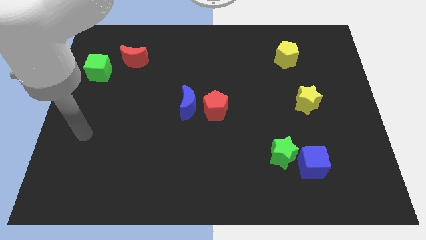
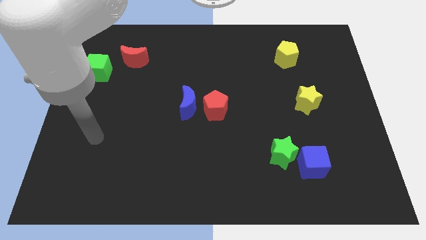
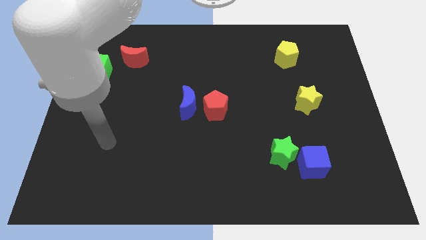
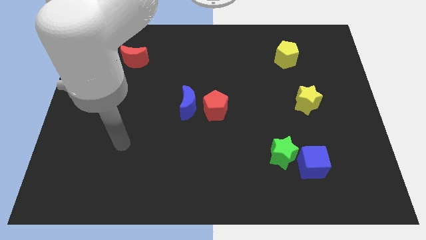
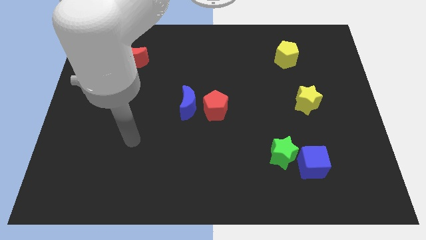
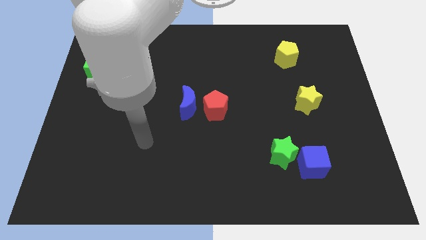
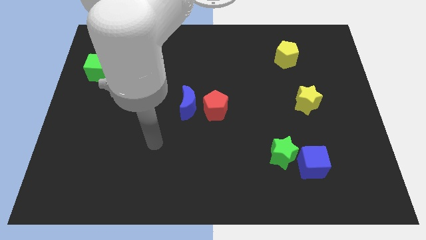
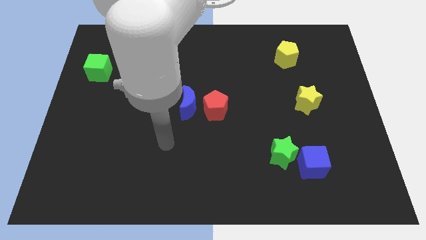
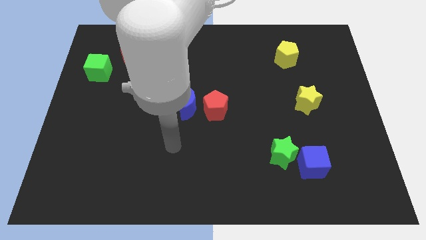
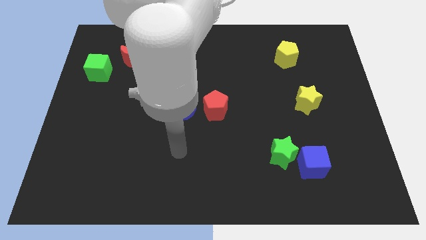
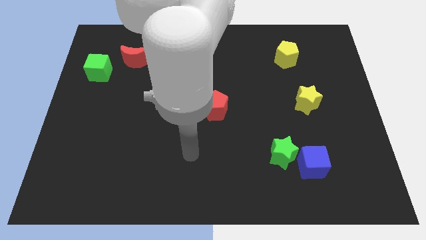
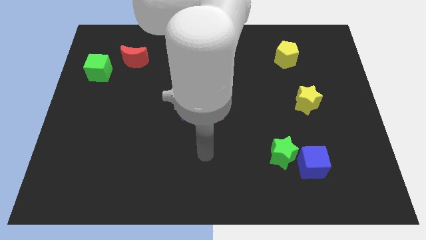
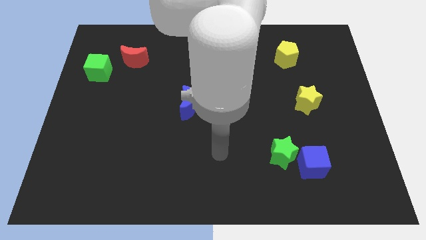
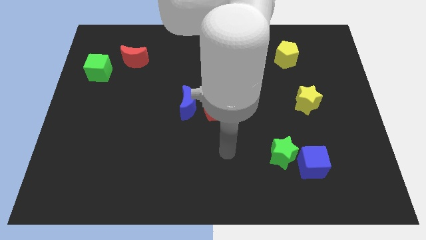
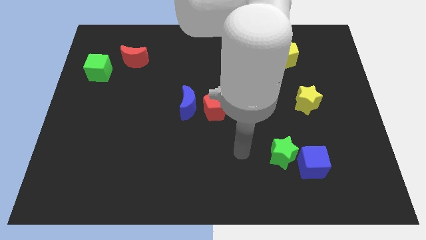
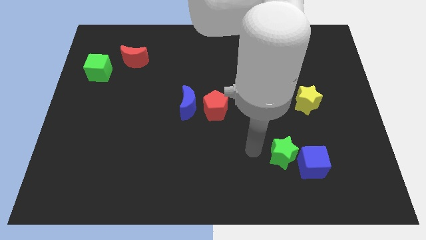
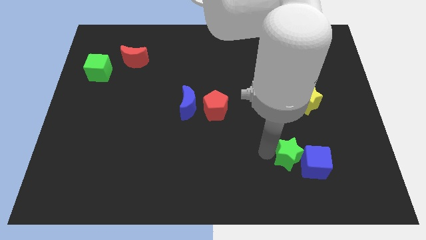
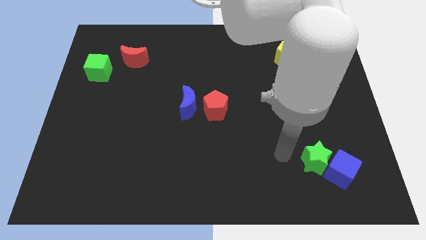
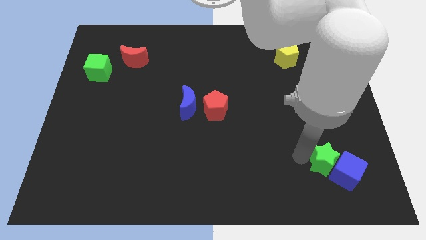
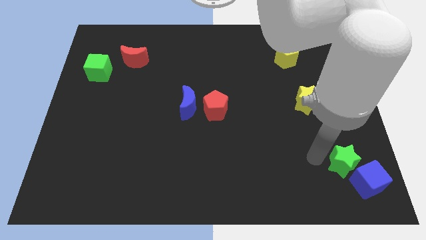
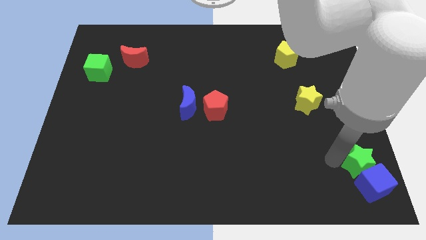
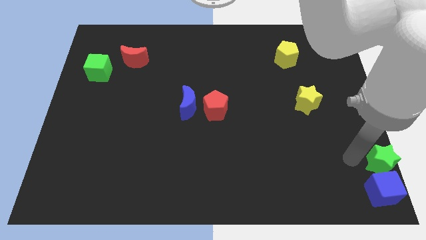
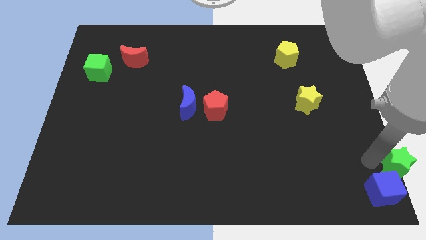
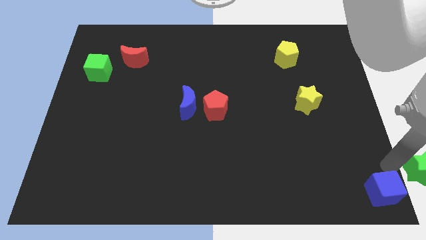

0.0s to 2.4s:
separate the blue cube from the green star

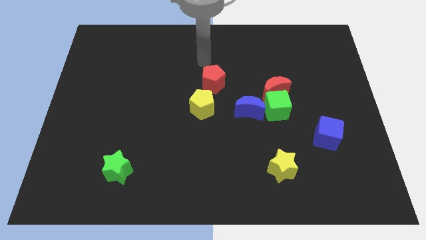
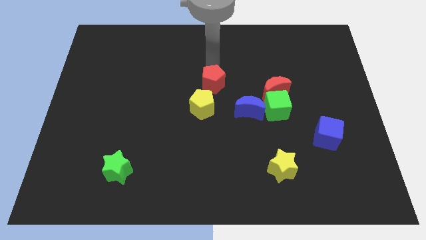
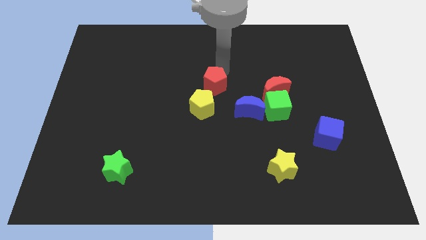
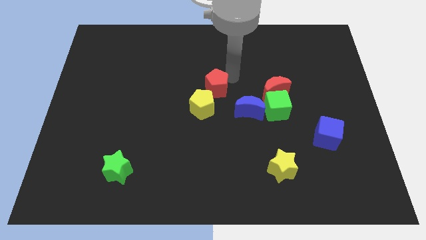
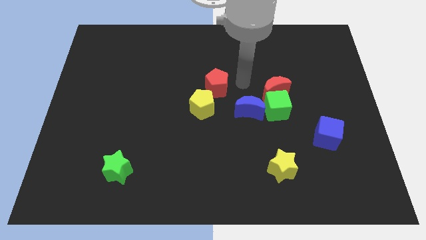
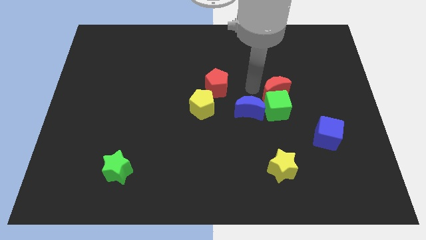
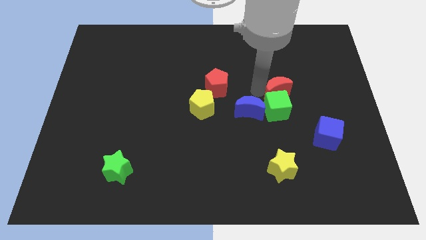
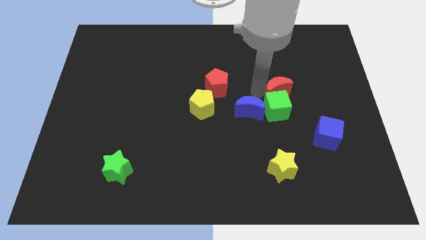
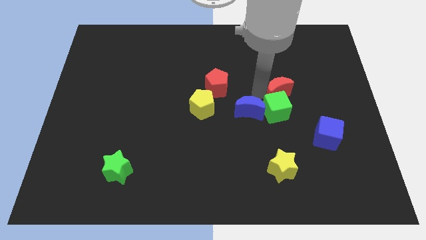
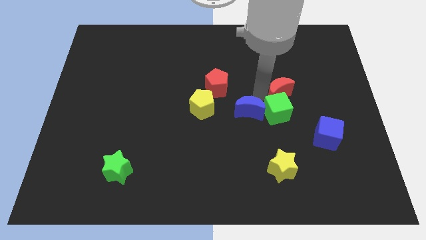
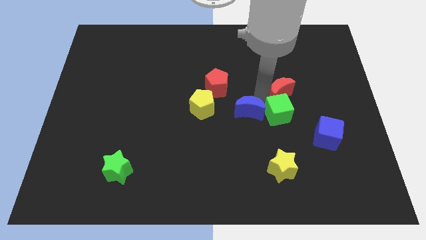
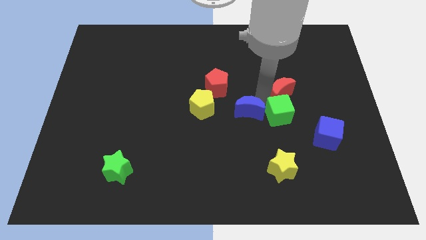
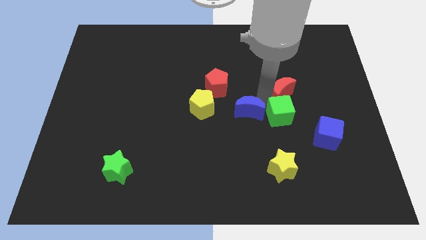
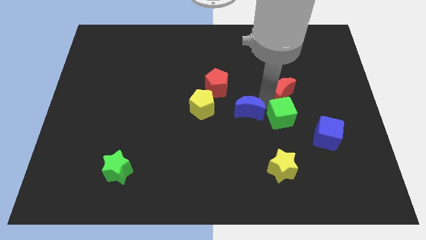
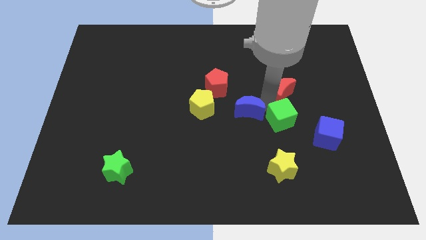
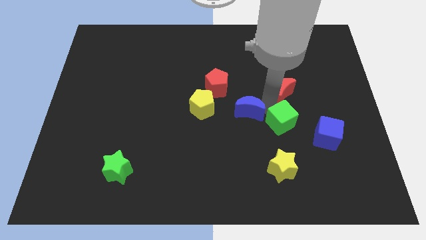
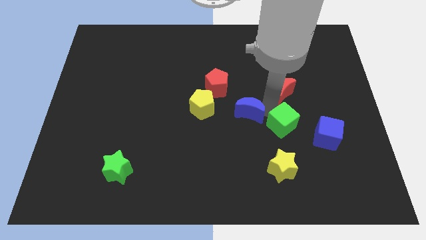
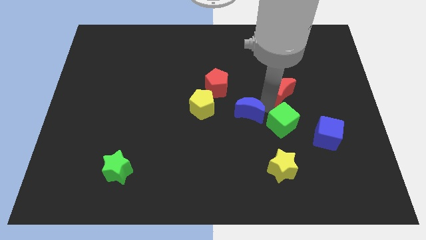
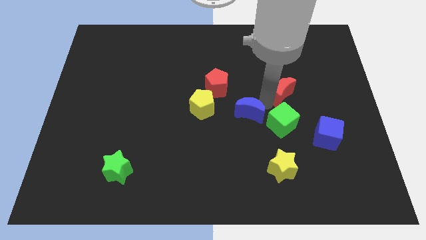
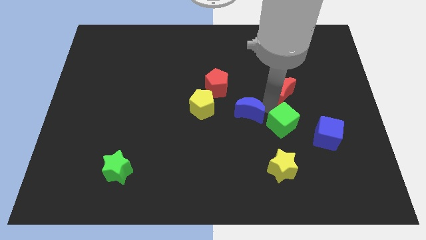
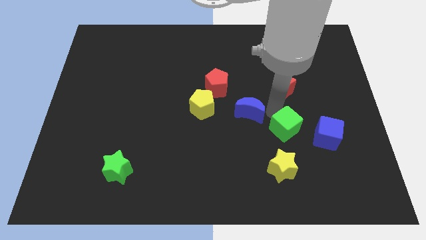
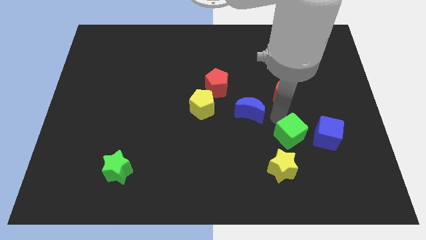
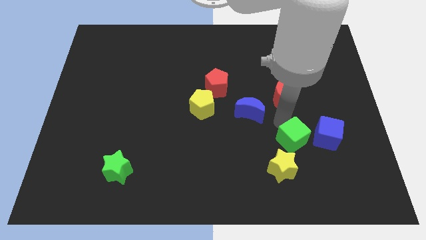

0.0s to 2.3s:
separate the green cube from the red moon and blue moon

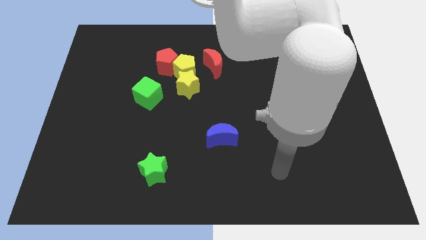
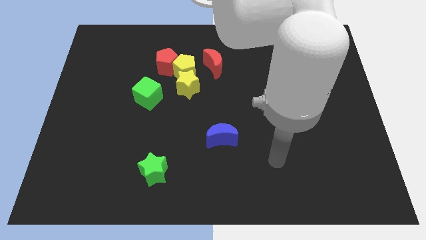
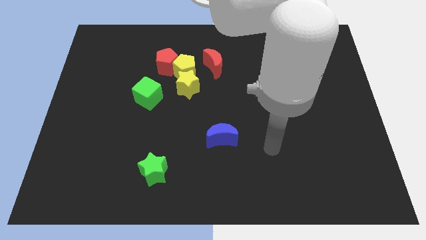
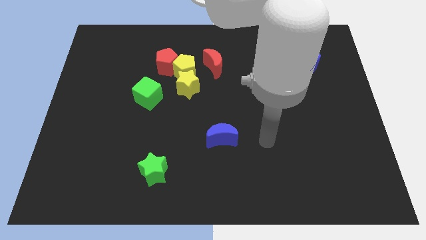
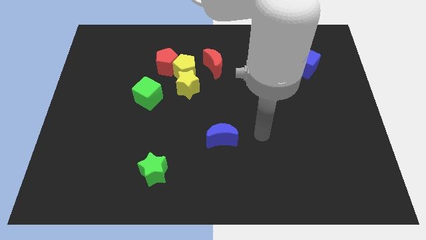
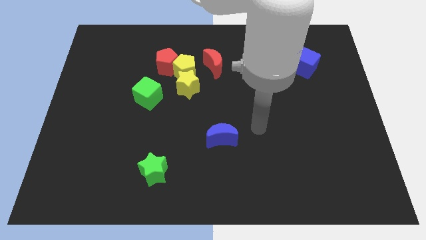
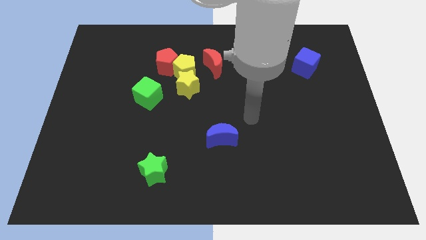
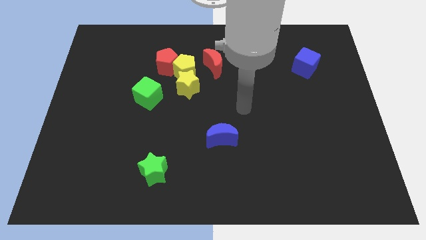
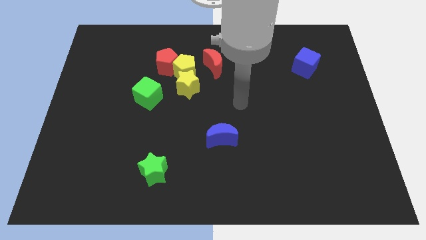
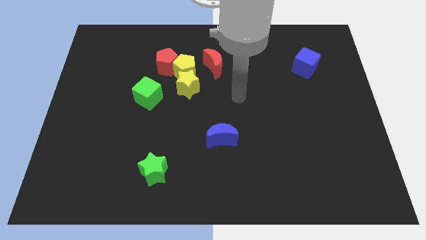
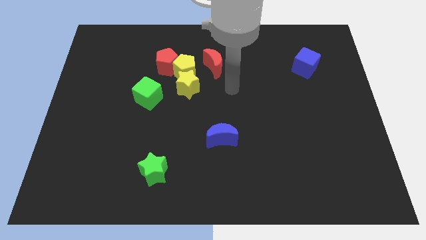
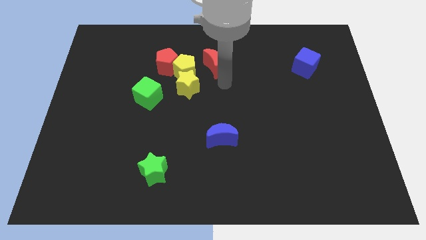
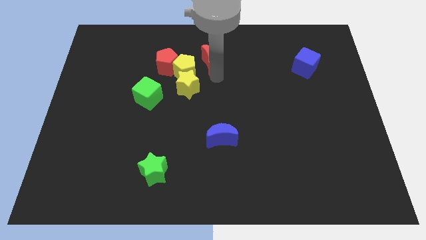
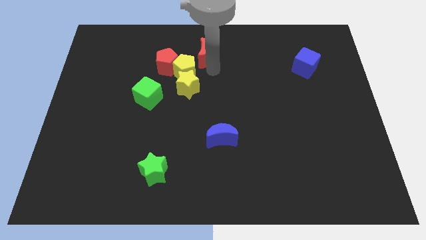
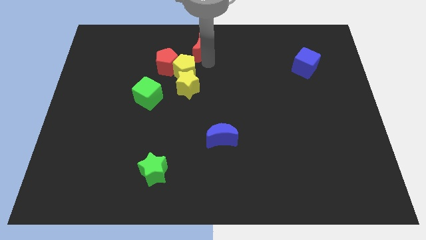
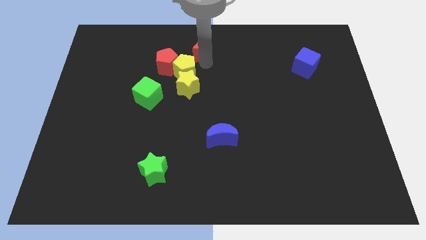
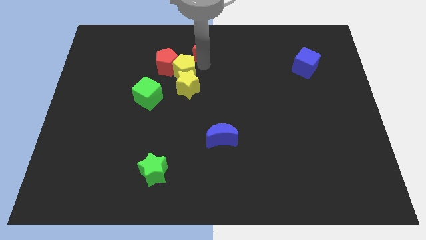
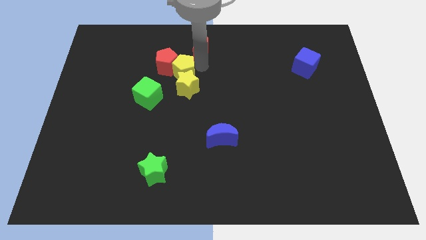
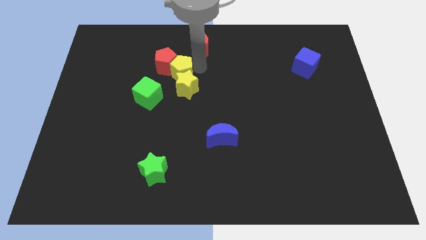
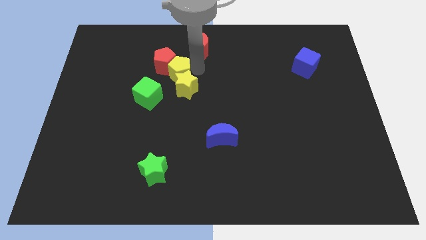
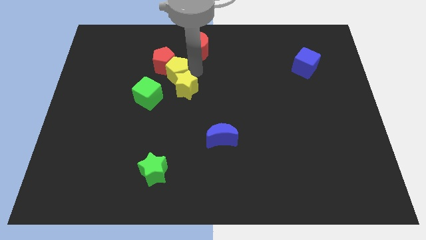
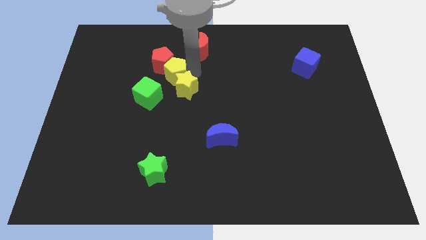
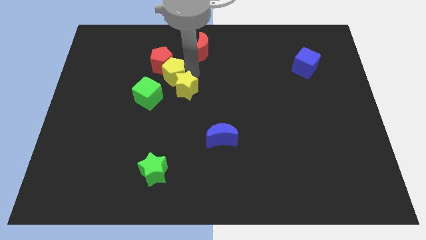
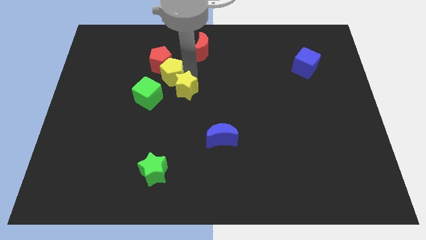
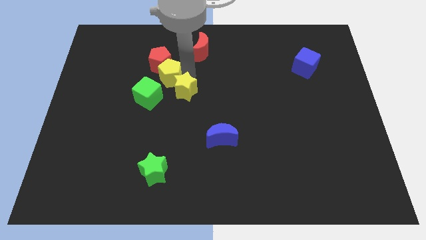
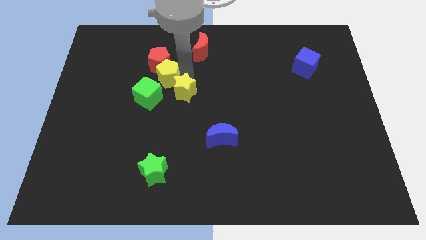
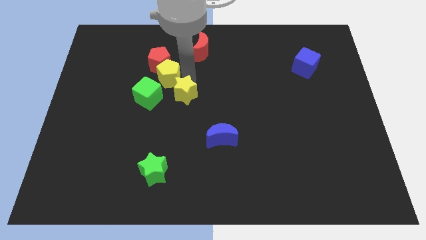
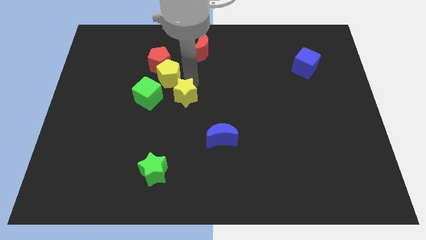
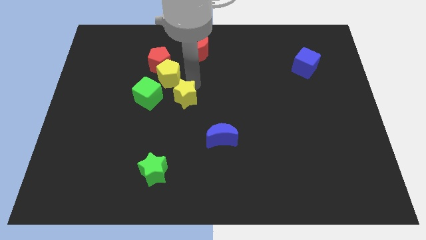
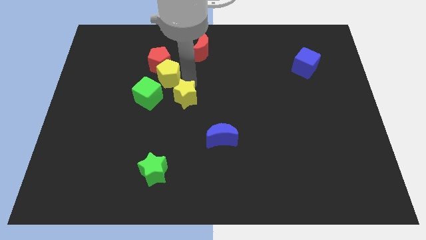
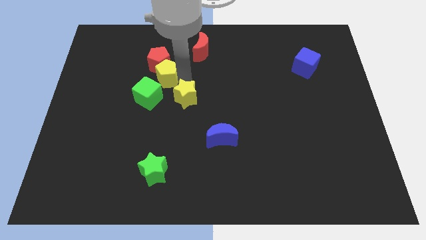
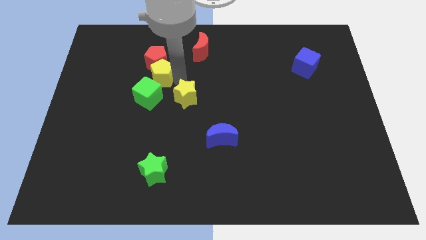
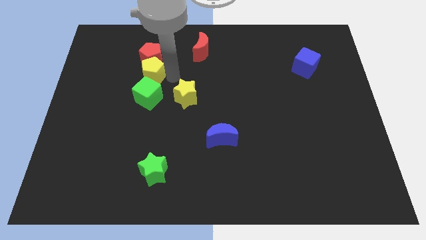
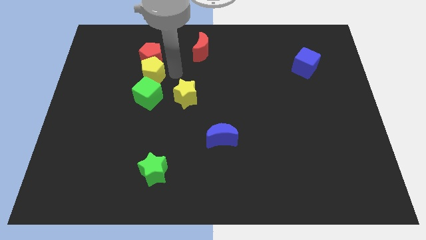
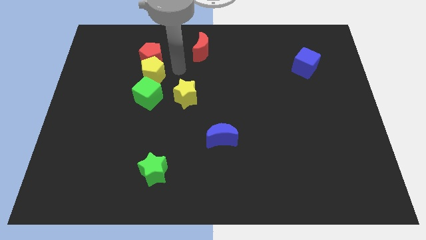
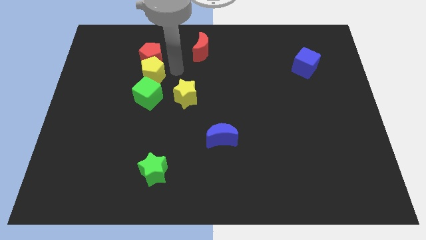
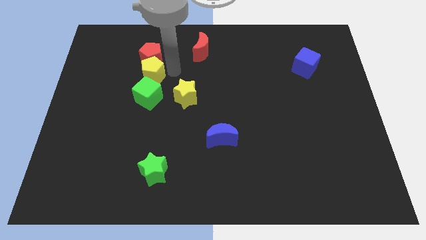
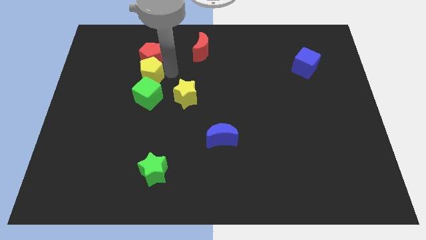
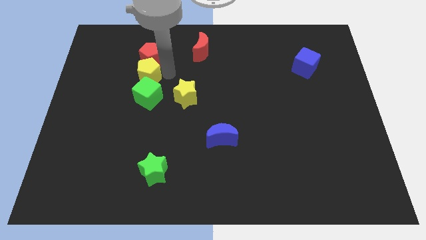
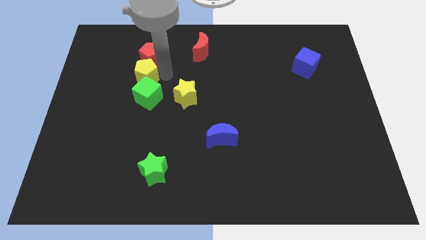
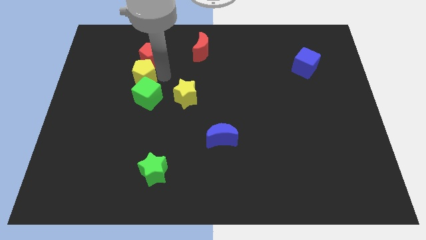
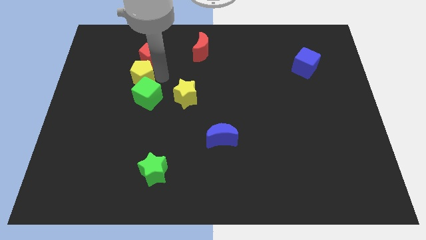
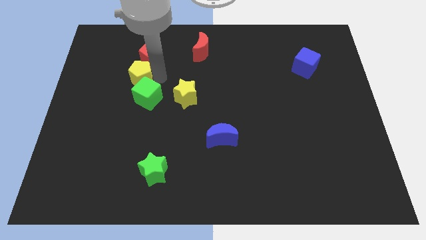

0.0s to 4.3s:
move the yellow pentagon away from the red pentagon, yellow star, and red moon

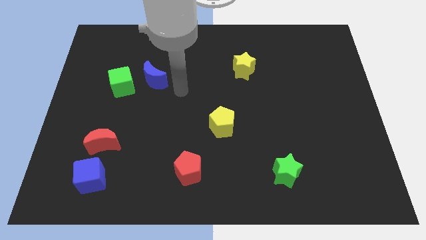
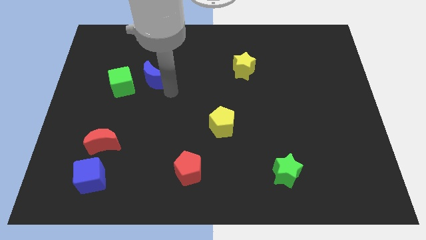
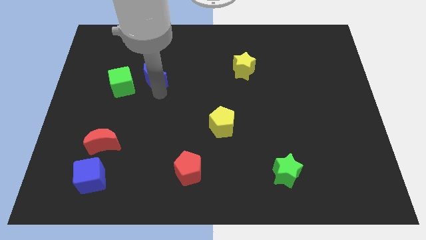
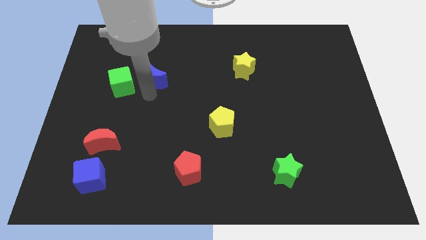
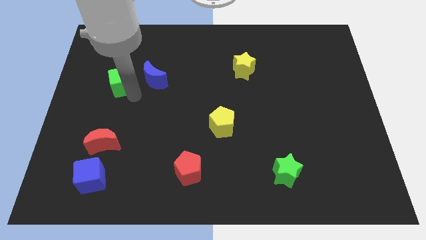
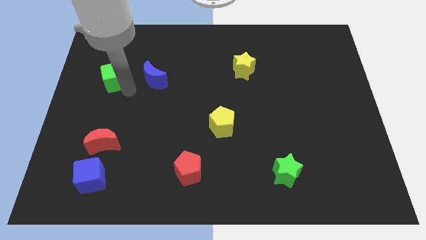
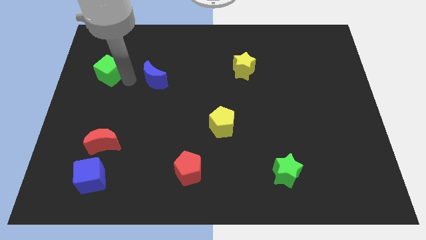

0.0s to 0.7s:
move the blue moon away from the green cube
